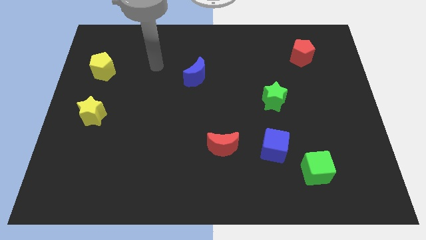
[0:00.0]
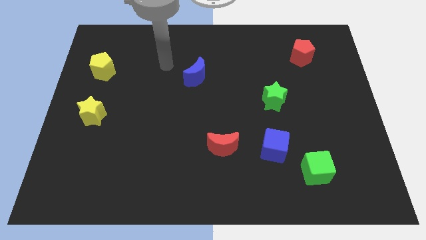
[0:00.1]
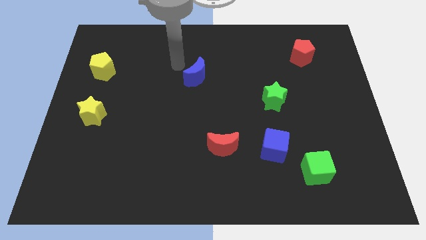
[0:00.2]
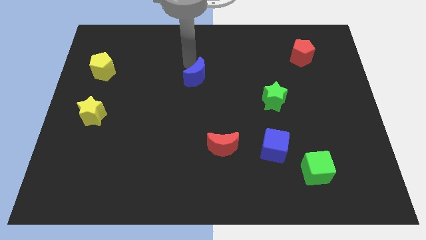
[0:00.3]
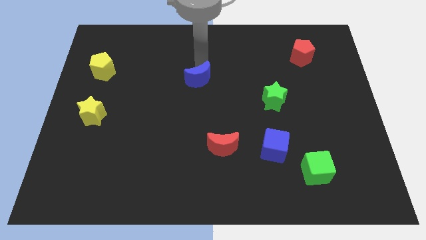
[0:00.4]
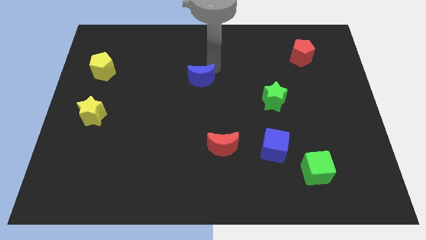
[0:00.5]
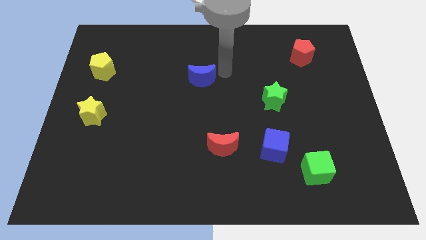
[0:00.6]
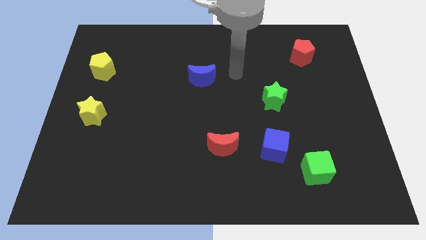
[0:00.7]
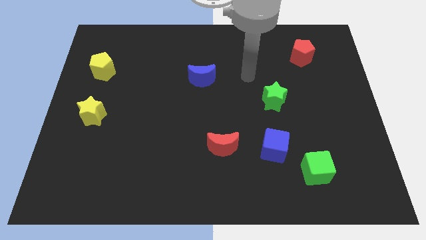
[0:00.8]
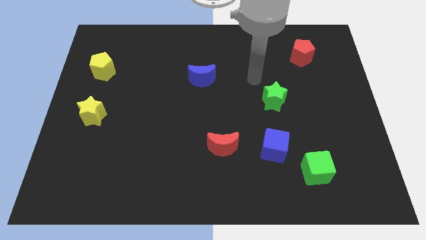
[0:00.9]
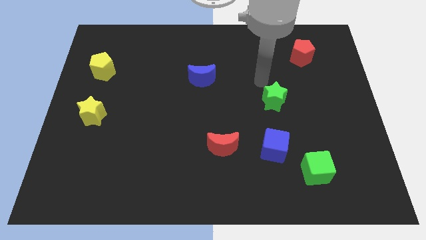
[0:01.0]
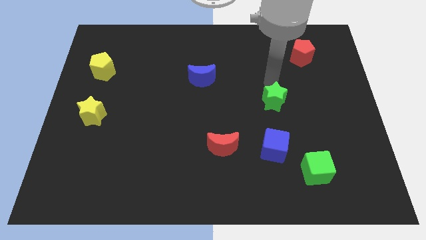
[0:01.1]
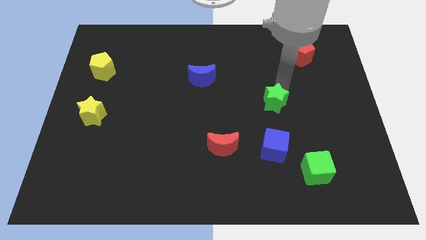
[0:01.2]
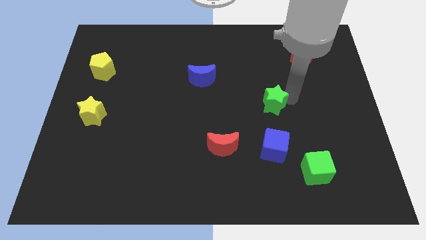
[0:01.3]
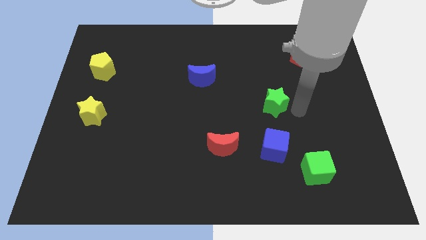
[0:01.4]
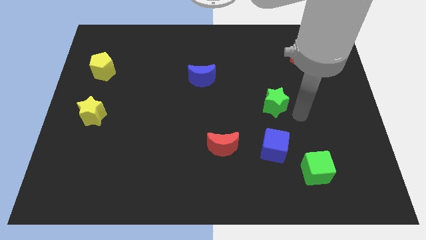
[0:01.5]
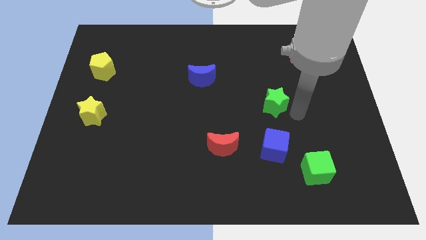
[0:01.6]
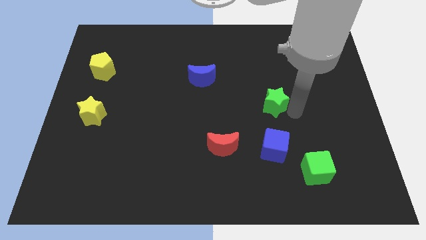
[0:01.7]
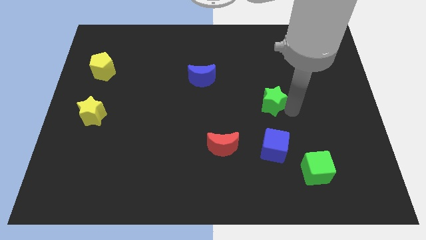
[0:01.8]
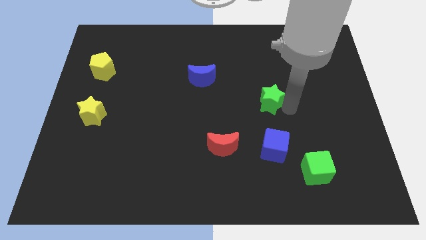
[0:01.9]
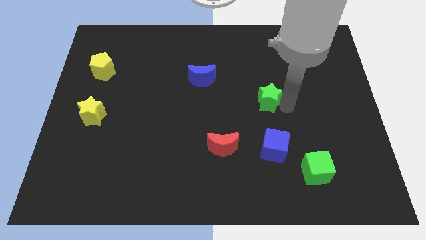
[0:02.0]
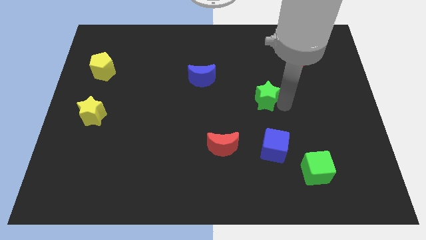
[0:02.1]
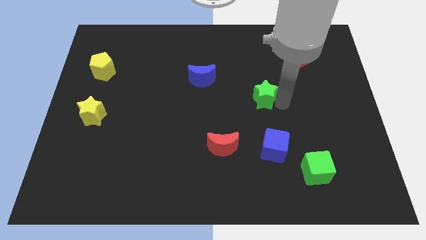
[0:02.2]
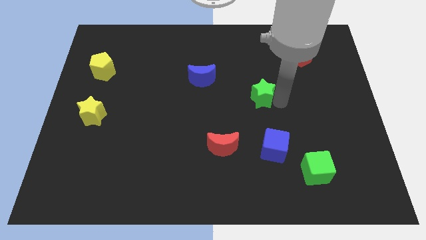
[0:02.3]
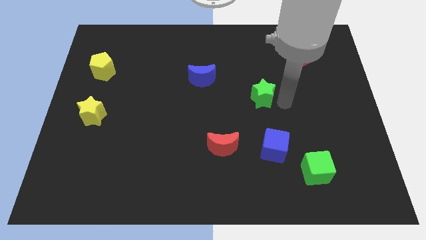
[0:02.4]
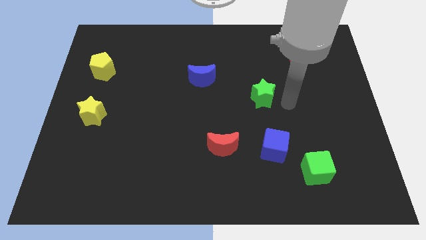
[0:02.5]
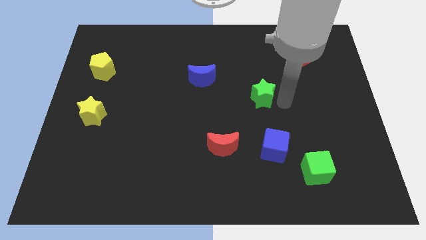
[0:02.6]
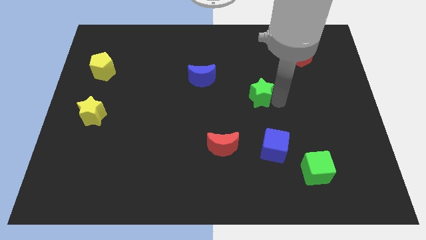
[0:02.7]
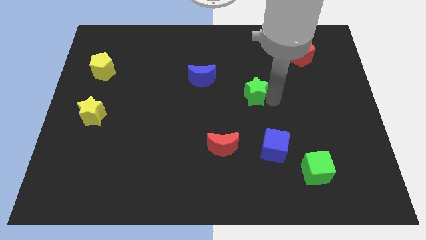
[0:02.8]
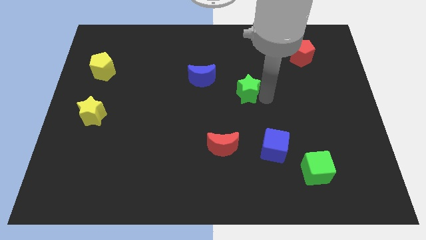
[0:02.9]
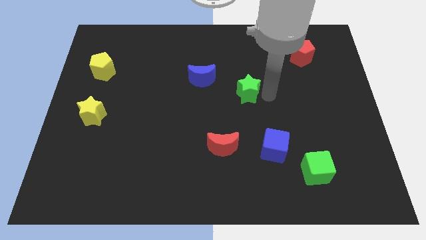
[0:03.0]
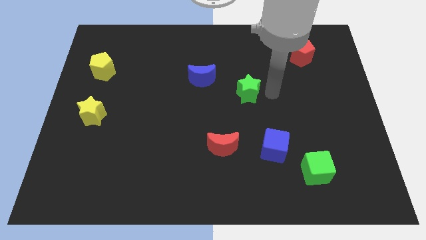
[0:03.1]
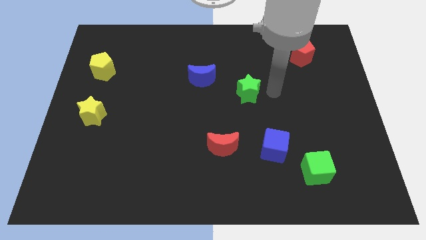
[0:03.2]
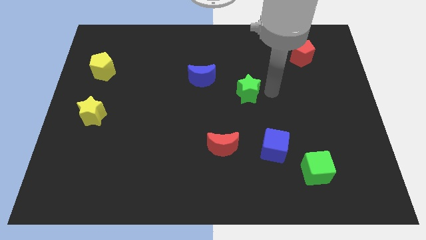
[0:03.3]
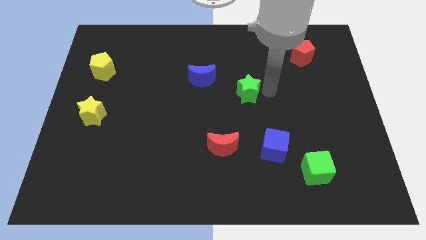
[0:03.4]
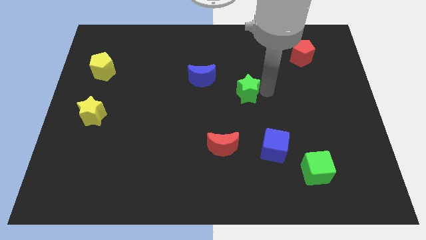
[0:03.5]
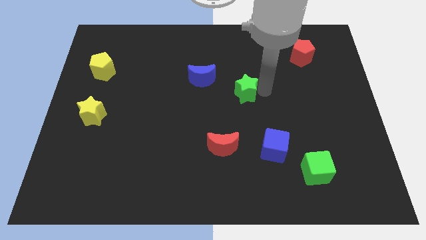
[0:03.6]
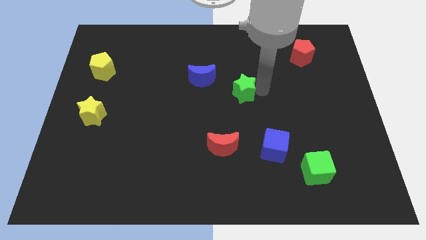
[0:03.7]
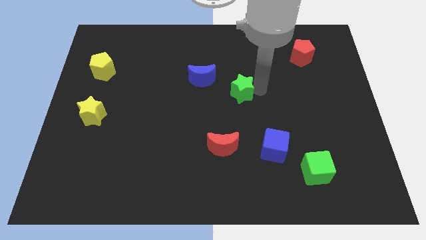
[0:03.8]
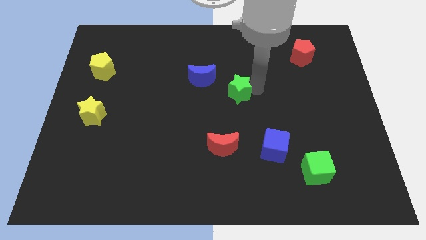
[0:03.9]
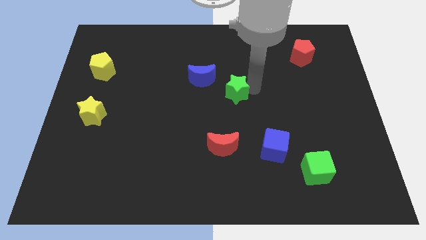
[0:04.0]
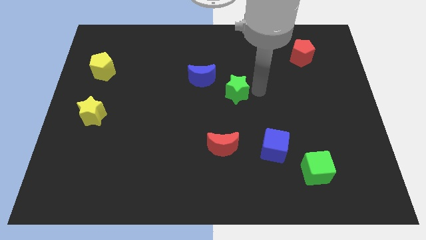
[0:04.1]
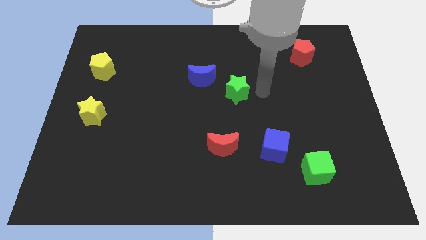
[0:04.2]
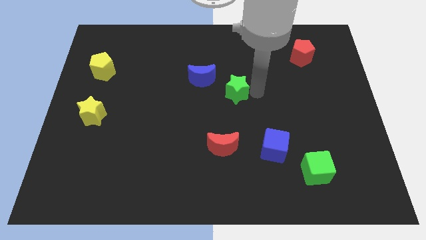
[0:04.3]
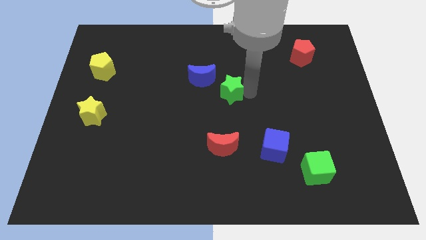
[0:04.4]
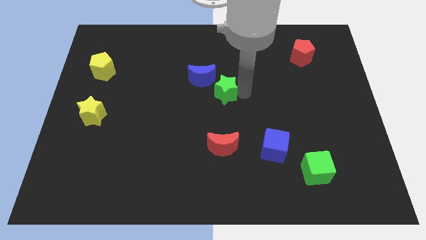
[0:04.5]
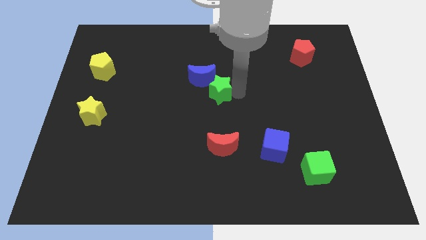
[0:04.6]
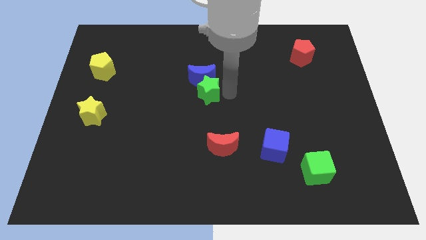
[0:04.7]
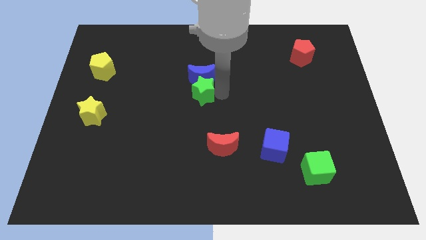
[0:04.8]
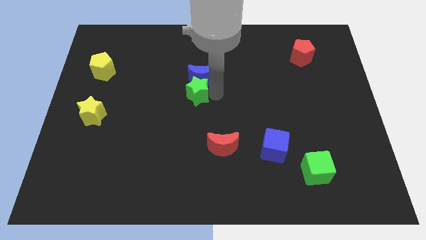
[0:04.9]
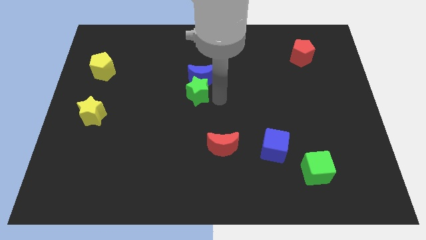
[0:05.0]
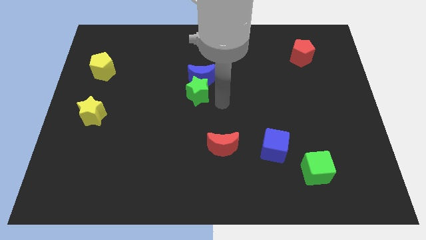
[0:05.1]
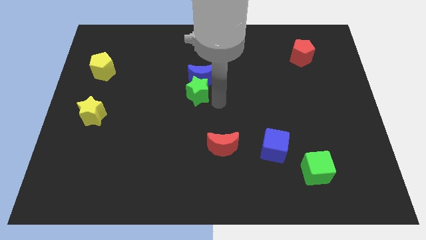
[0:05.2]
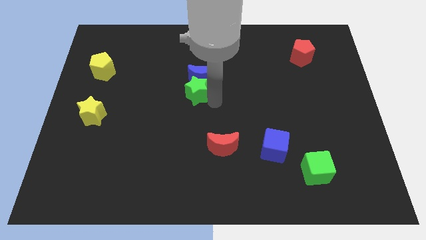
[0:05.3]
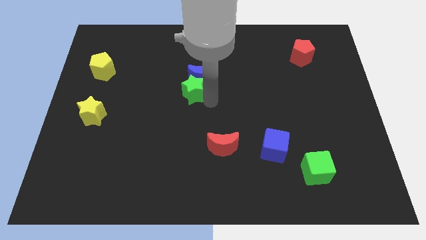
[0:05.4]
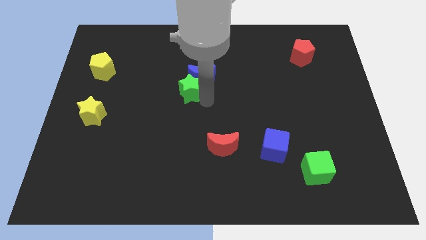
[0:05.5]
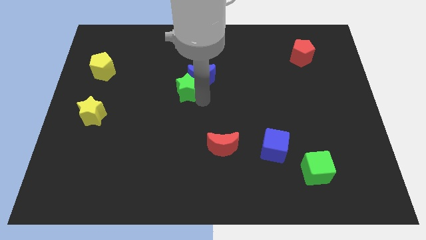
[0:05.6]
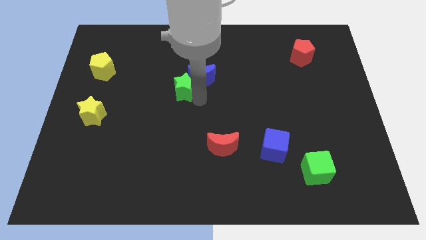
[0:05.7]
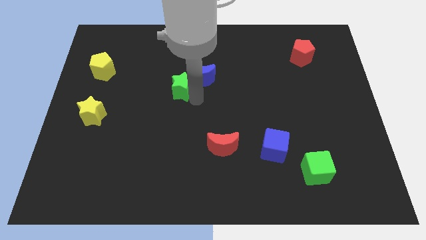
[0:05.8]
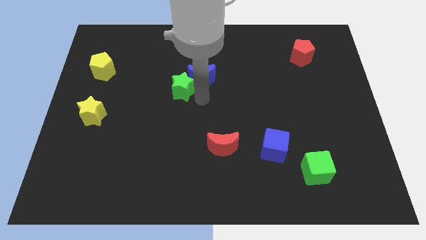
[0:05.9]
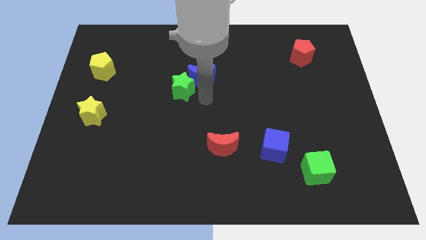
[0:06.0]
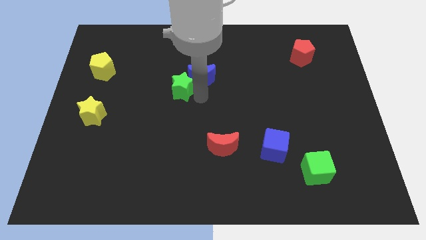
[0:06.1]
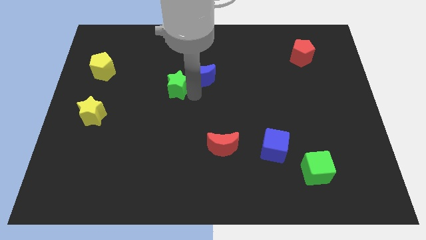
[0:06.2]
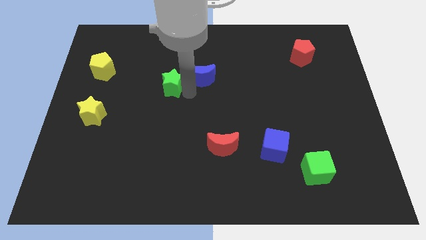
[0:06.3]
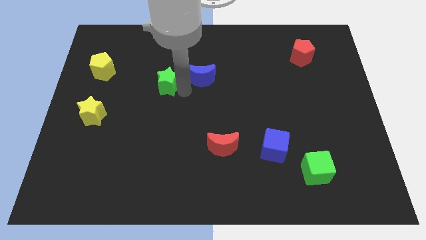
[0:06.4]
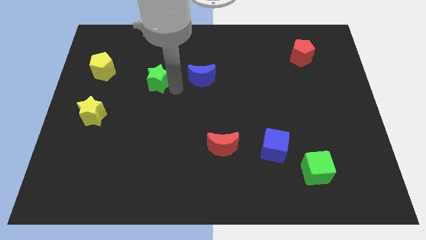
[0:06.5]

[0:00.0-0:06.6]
put the green star right of the yellow pentagon

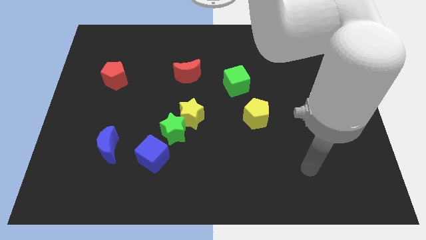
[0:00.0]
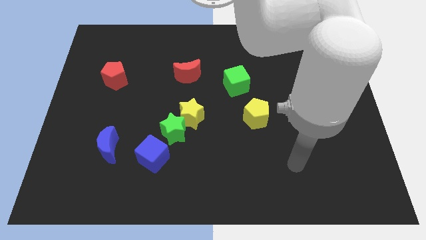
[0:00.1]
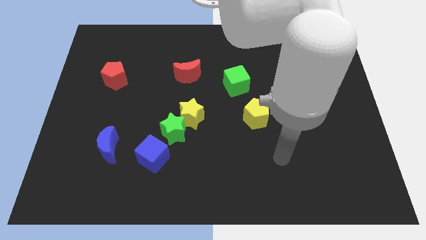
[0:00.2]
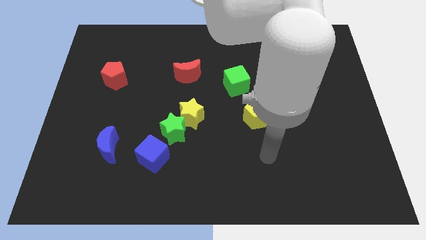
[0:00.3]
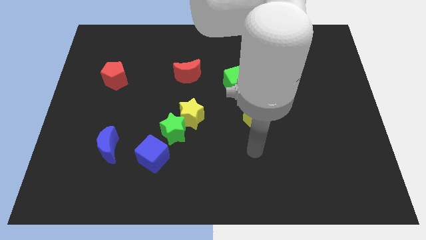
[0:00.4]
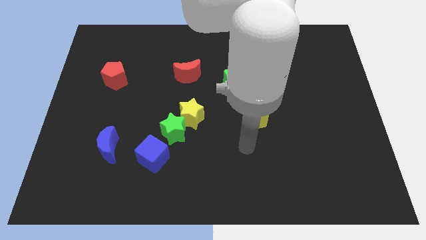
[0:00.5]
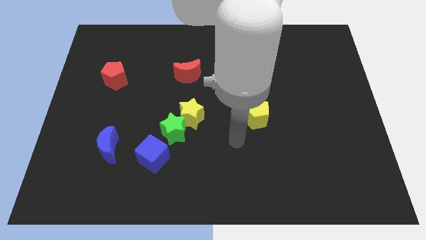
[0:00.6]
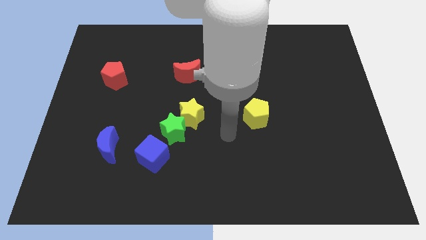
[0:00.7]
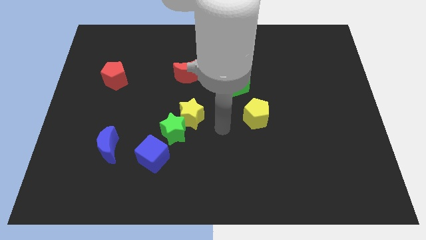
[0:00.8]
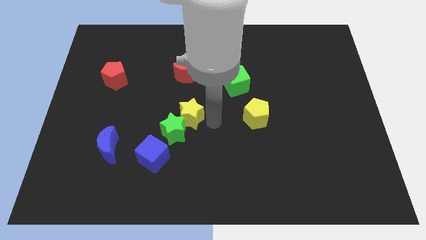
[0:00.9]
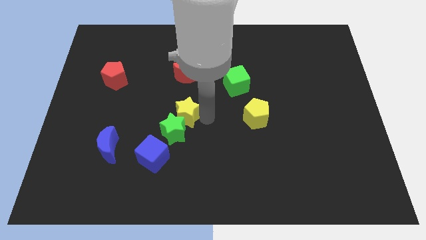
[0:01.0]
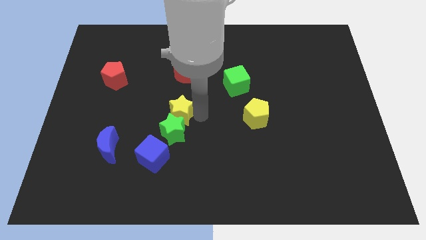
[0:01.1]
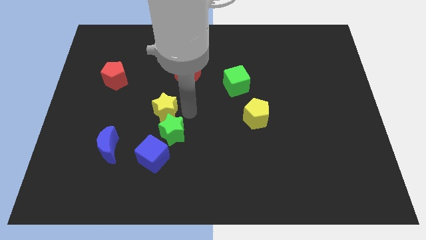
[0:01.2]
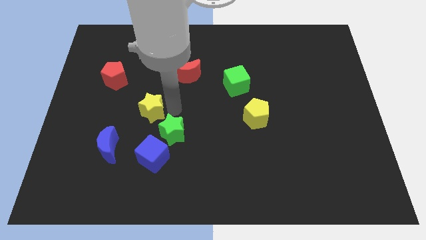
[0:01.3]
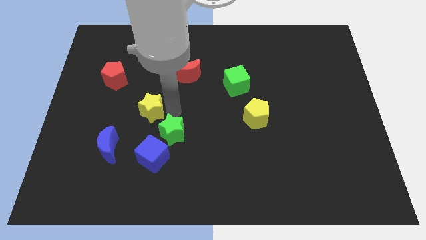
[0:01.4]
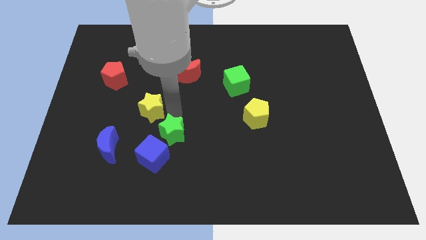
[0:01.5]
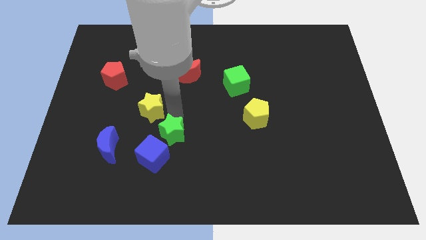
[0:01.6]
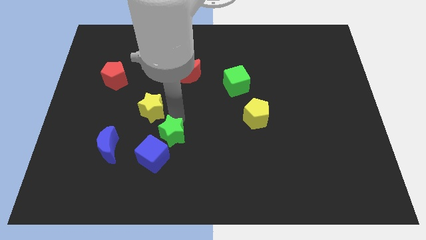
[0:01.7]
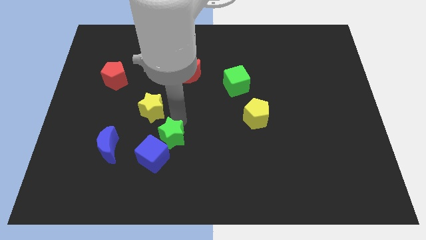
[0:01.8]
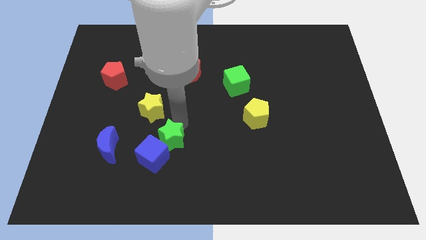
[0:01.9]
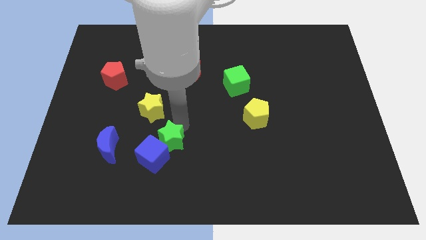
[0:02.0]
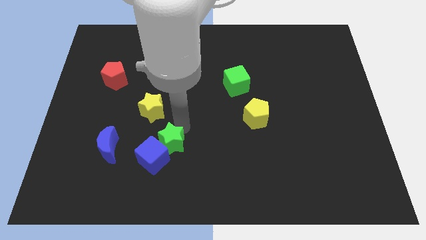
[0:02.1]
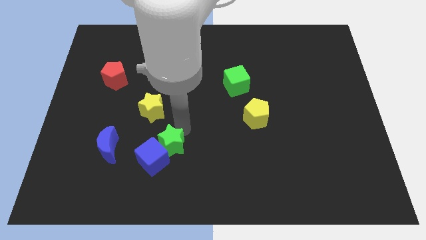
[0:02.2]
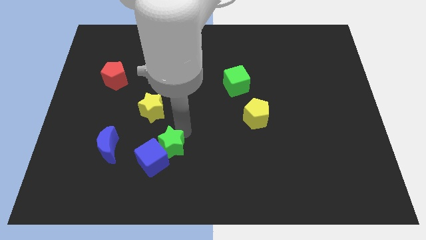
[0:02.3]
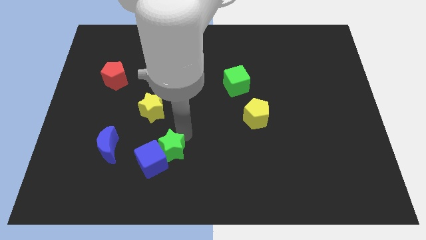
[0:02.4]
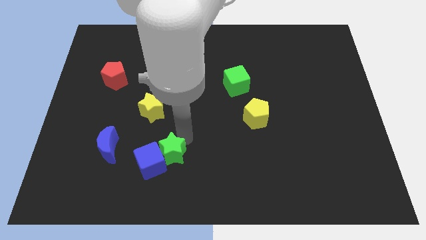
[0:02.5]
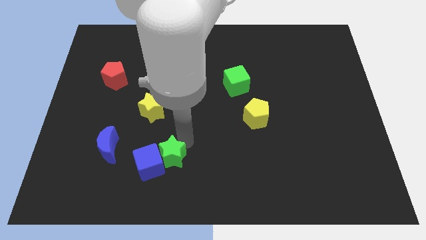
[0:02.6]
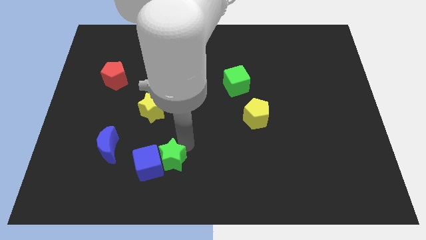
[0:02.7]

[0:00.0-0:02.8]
move the green star diagonally down and to the right of the blue cube
